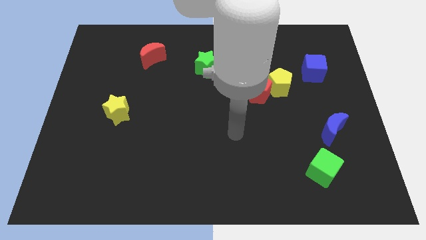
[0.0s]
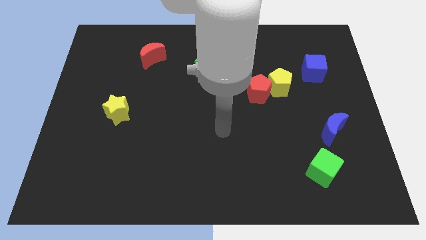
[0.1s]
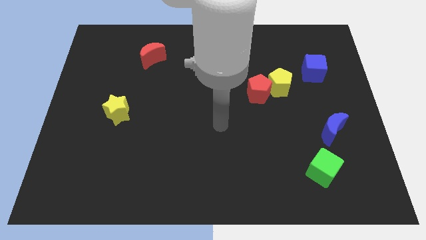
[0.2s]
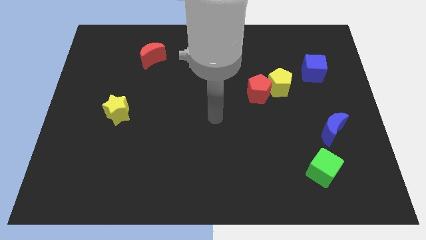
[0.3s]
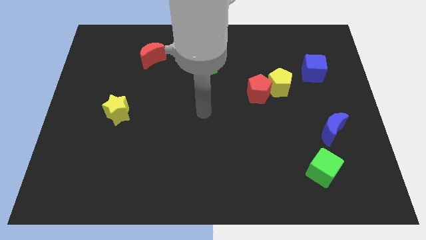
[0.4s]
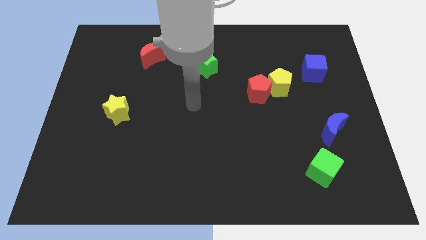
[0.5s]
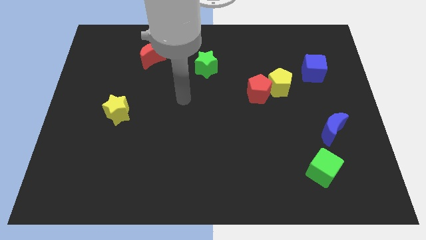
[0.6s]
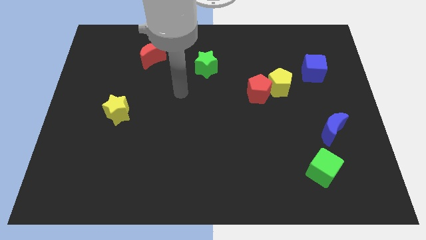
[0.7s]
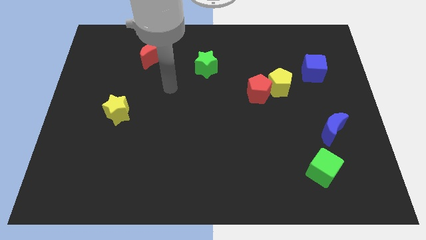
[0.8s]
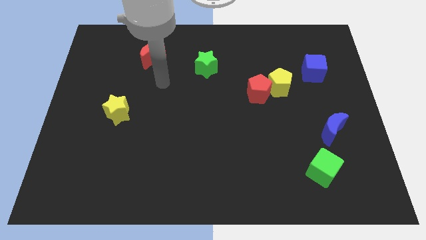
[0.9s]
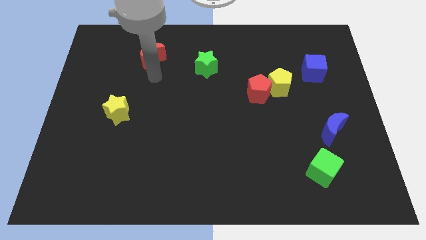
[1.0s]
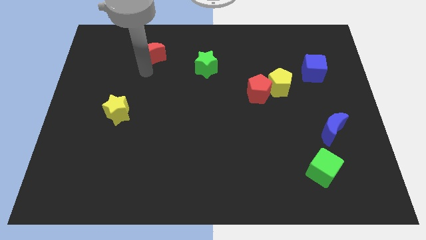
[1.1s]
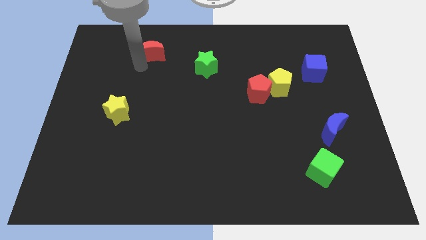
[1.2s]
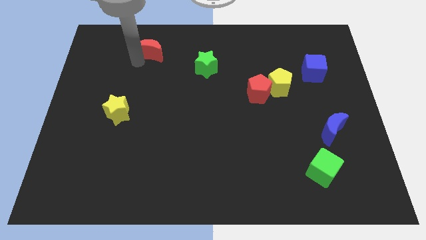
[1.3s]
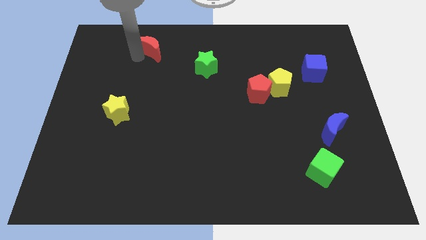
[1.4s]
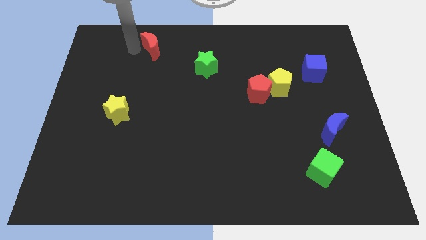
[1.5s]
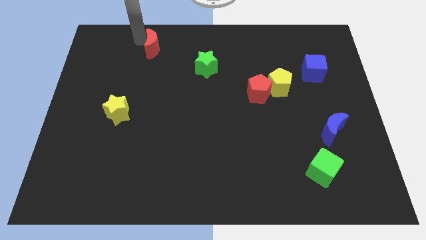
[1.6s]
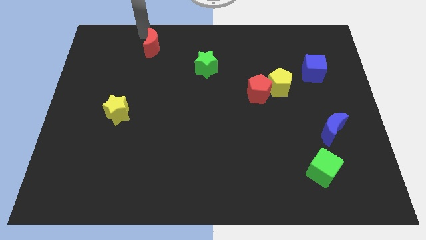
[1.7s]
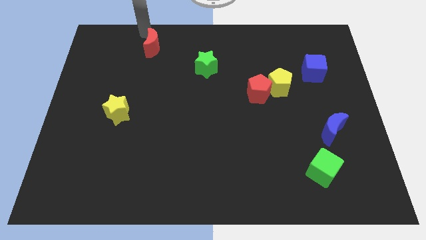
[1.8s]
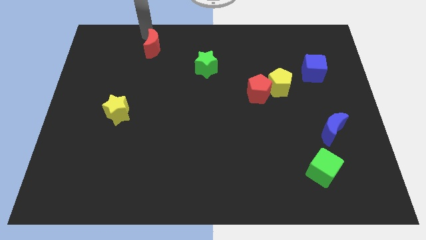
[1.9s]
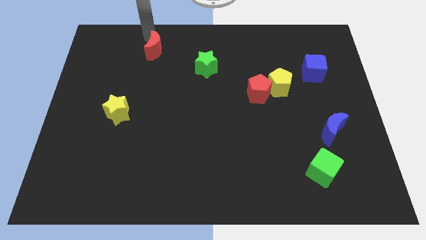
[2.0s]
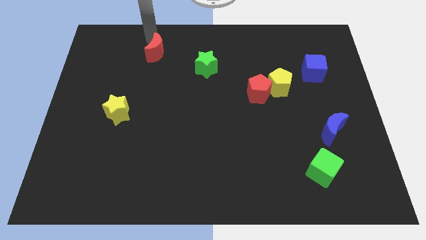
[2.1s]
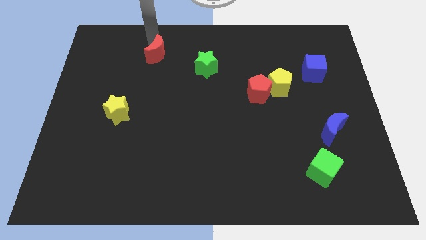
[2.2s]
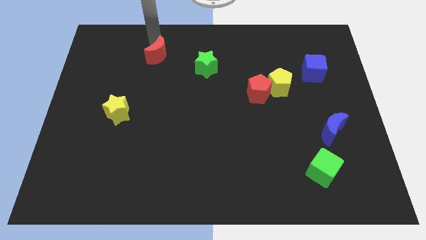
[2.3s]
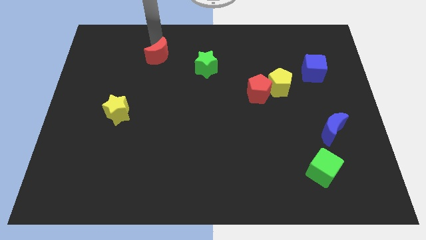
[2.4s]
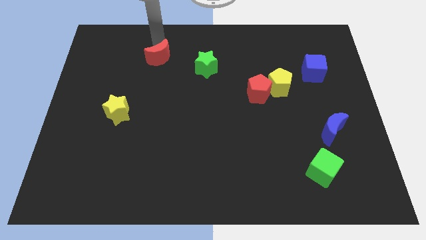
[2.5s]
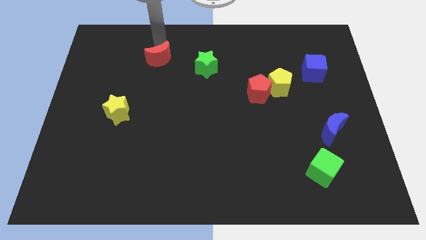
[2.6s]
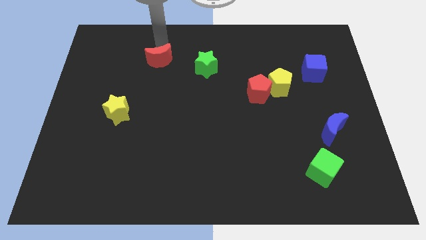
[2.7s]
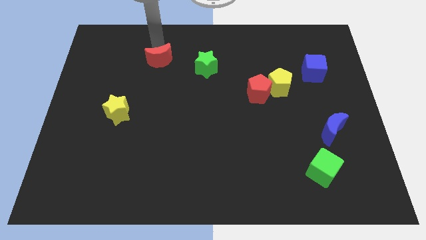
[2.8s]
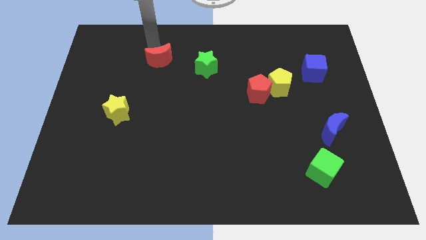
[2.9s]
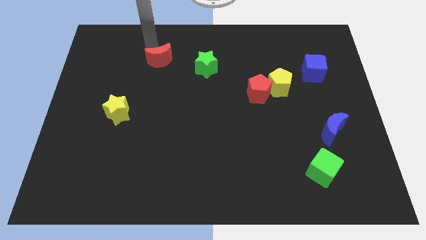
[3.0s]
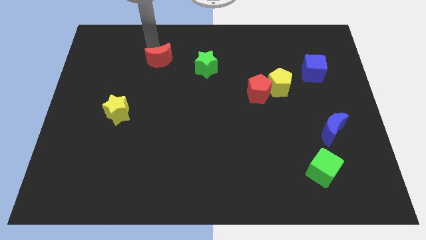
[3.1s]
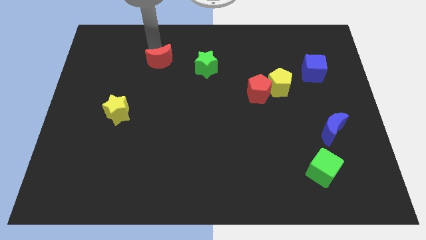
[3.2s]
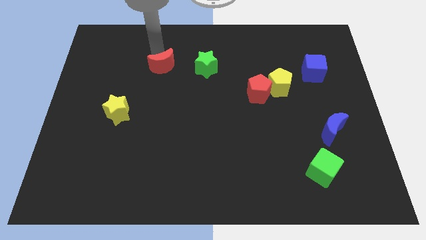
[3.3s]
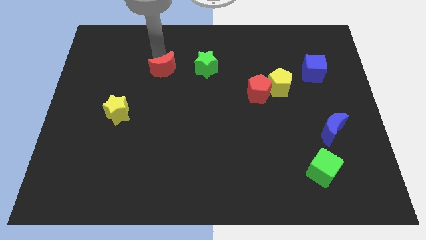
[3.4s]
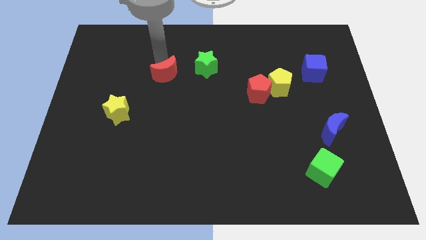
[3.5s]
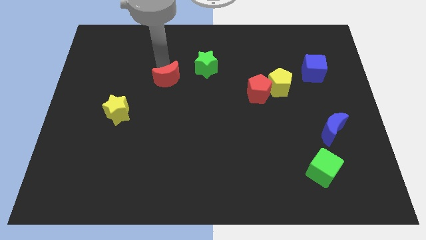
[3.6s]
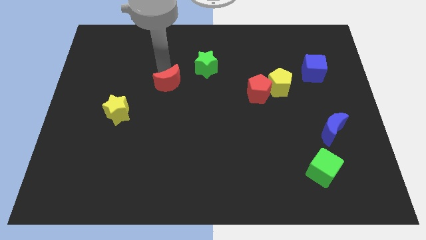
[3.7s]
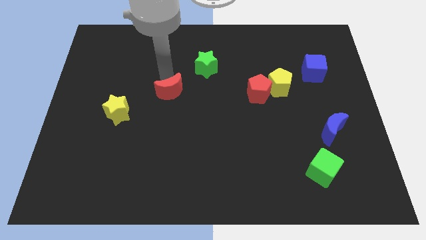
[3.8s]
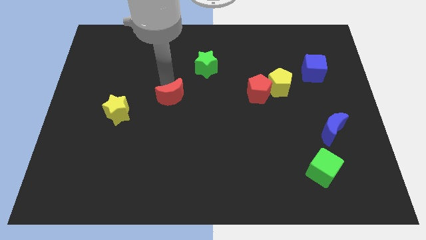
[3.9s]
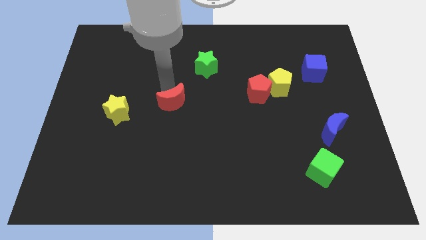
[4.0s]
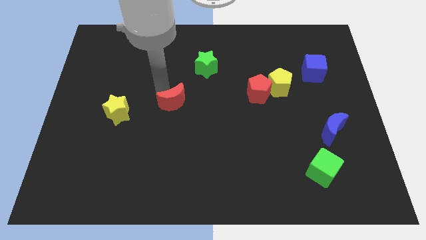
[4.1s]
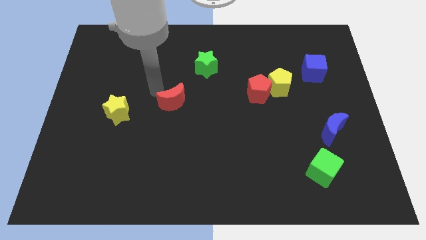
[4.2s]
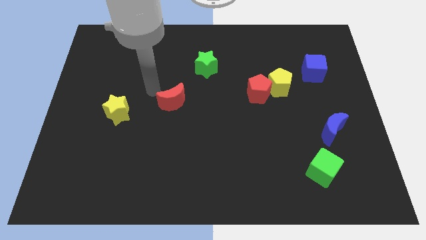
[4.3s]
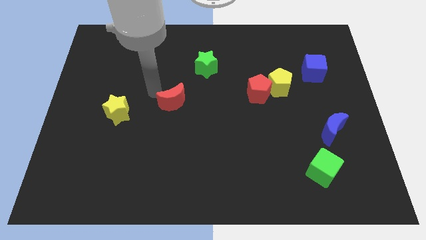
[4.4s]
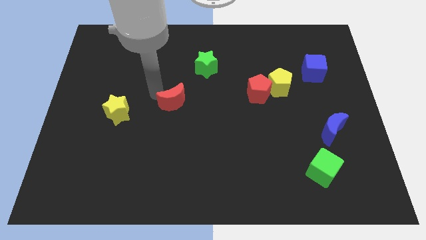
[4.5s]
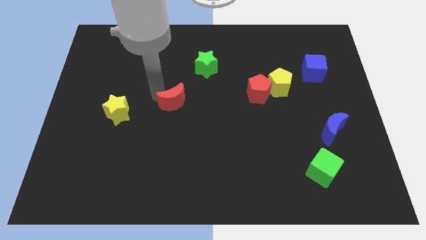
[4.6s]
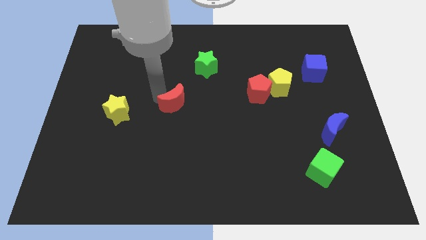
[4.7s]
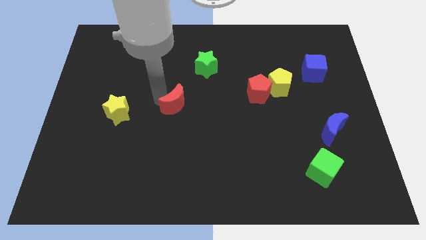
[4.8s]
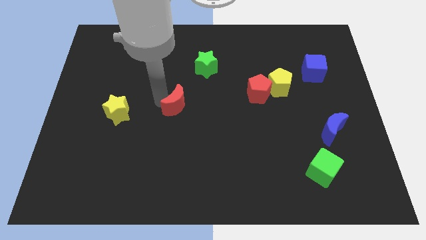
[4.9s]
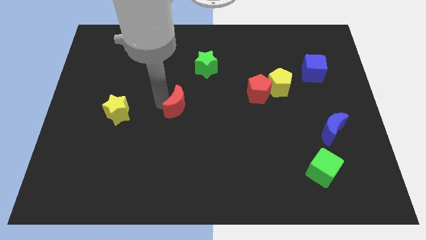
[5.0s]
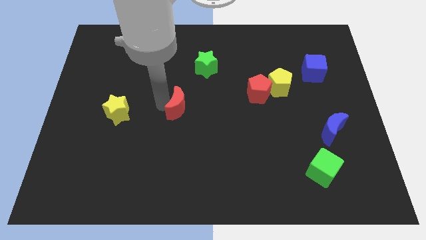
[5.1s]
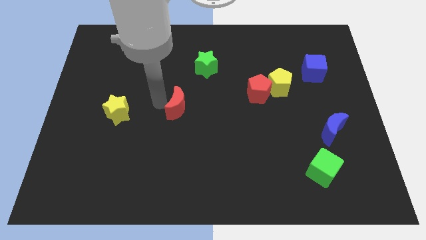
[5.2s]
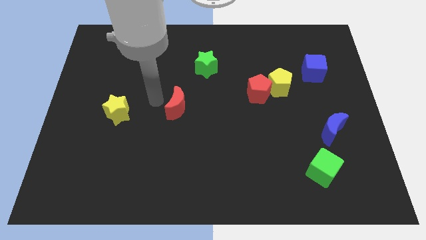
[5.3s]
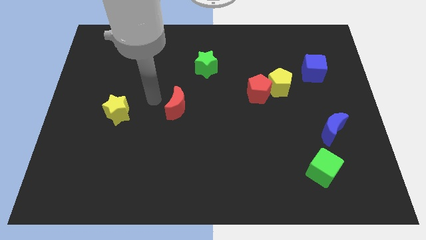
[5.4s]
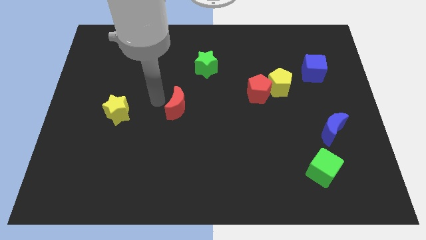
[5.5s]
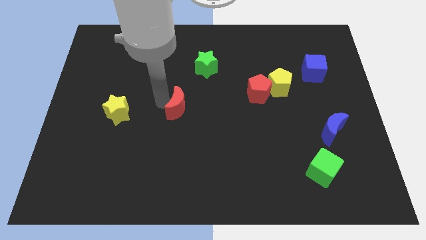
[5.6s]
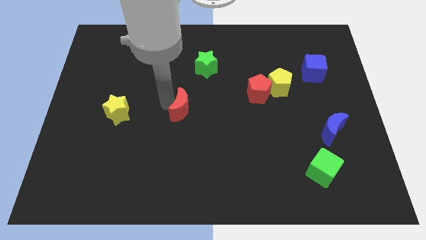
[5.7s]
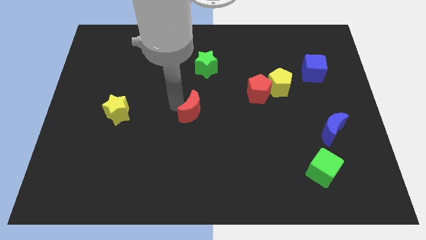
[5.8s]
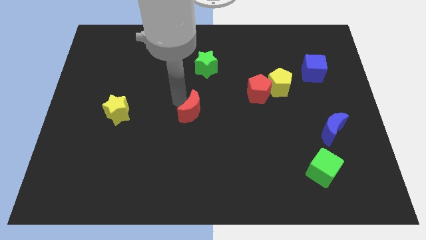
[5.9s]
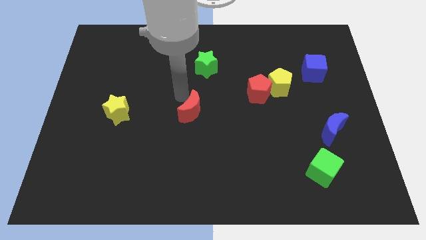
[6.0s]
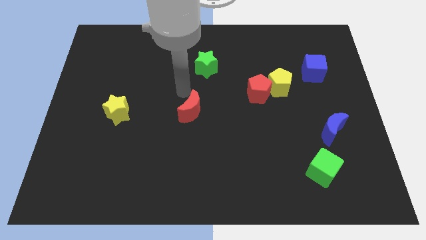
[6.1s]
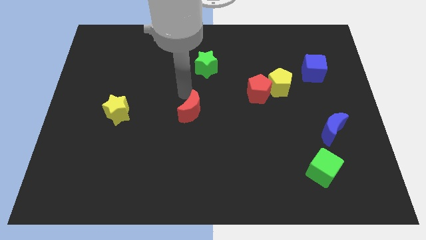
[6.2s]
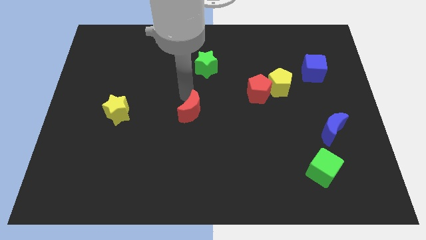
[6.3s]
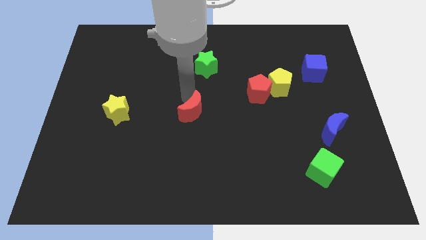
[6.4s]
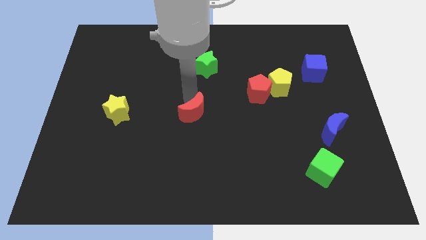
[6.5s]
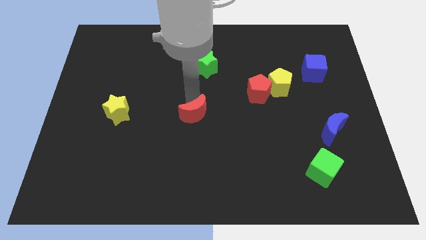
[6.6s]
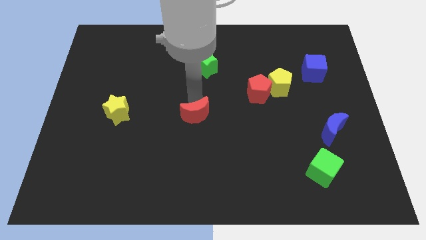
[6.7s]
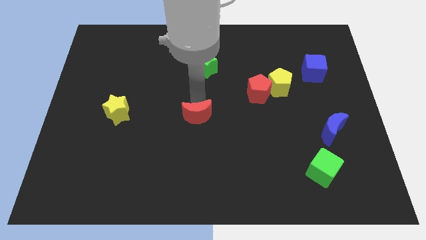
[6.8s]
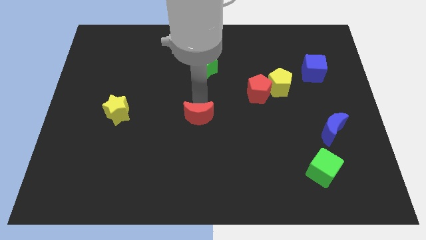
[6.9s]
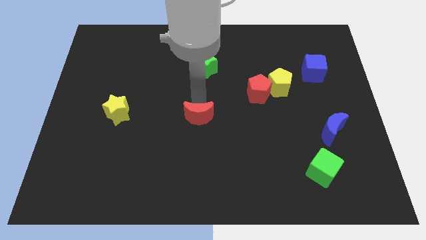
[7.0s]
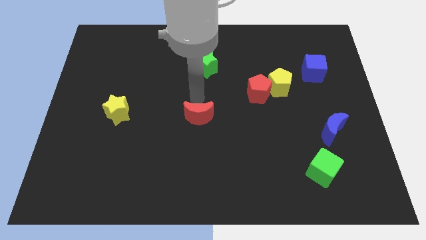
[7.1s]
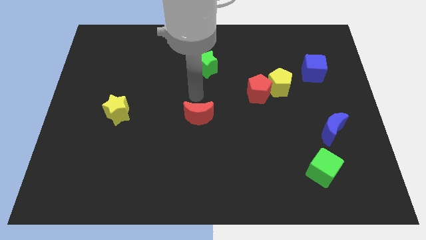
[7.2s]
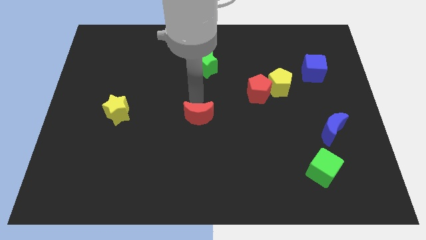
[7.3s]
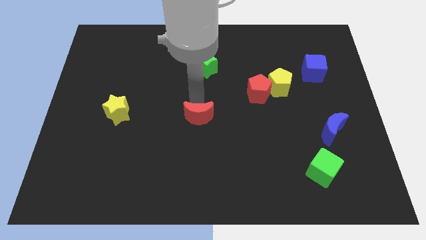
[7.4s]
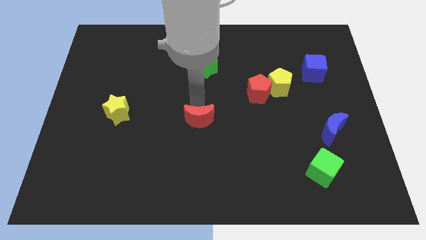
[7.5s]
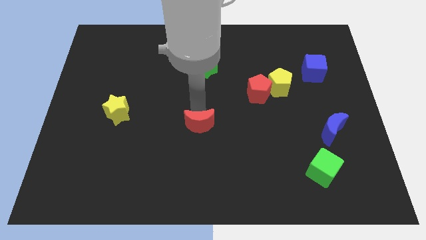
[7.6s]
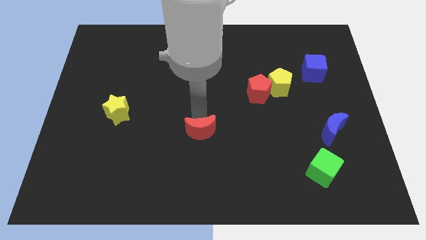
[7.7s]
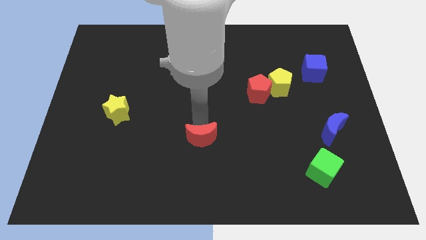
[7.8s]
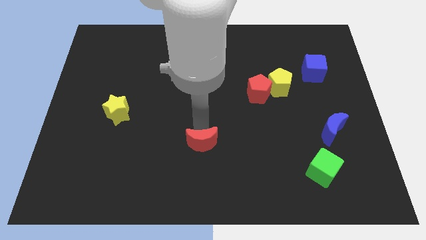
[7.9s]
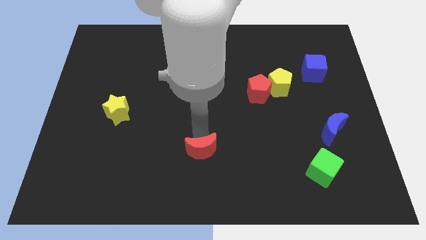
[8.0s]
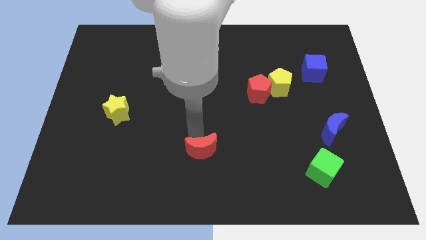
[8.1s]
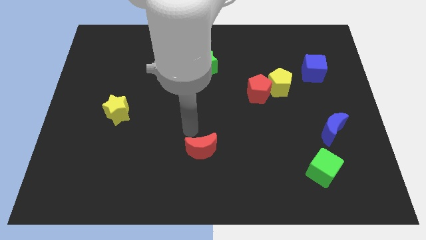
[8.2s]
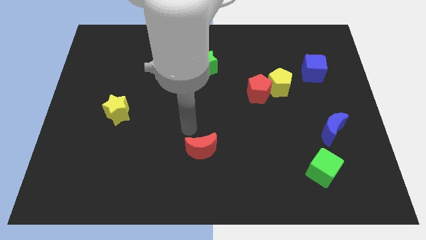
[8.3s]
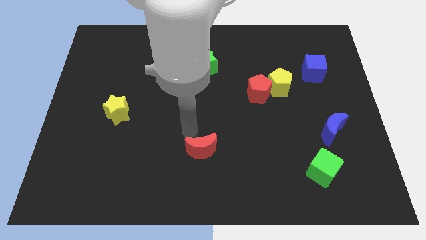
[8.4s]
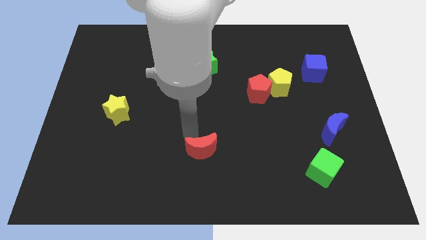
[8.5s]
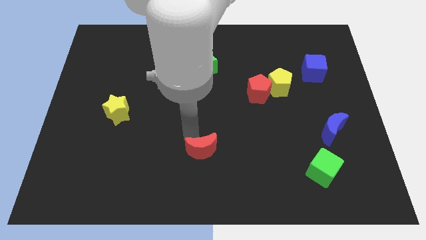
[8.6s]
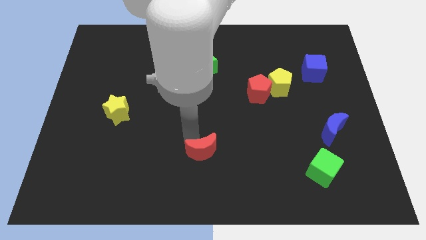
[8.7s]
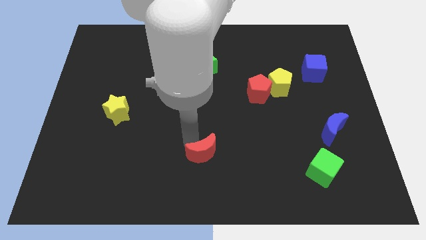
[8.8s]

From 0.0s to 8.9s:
push the red moon to the bottom
